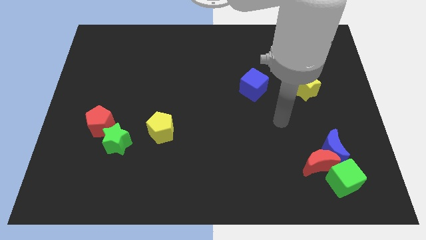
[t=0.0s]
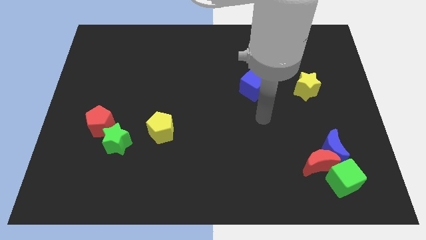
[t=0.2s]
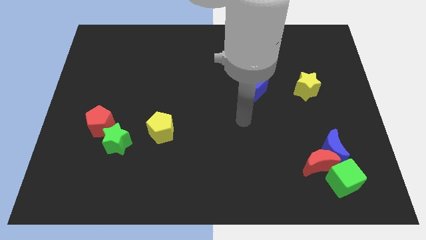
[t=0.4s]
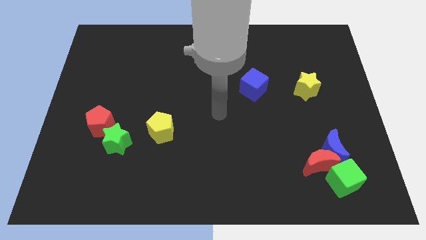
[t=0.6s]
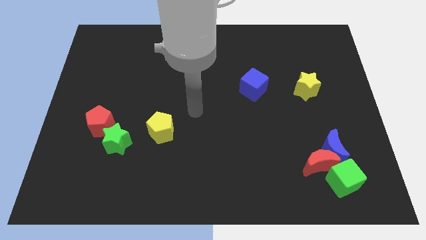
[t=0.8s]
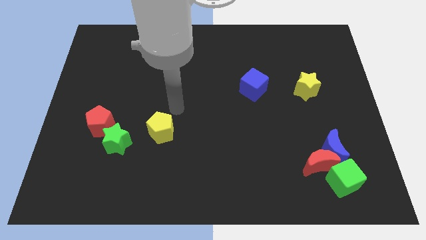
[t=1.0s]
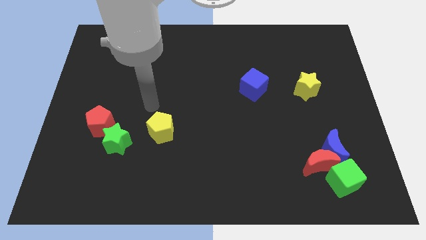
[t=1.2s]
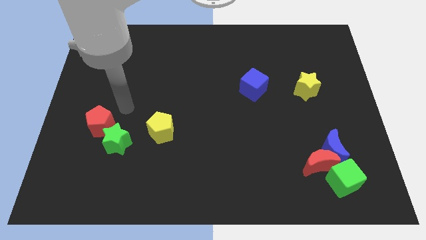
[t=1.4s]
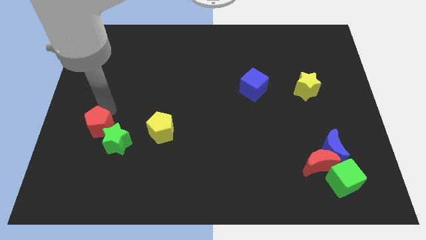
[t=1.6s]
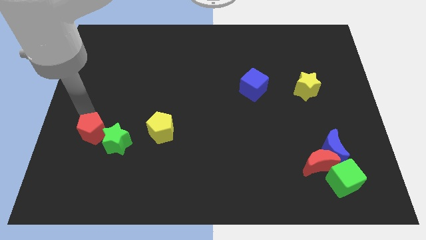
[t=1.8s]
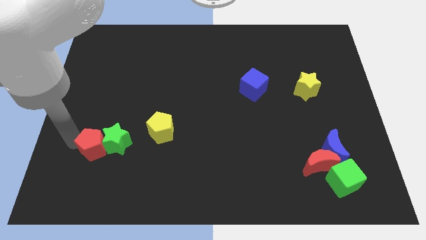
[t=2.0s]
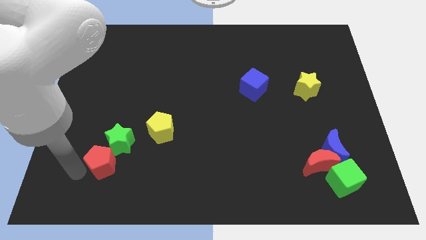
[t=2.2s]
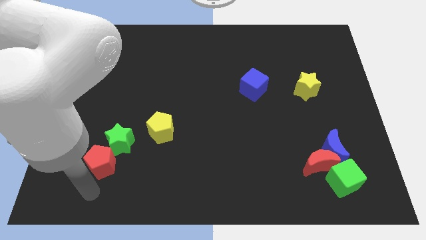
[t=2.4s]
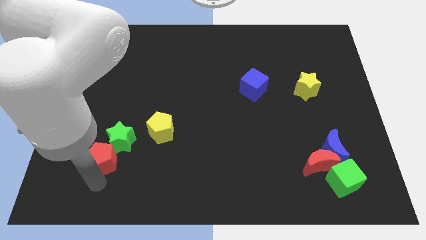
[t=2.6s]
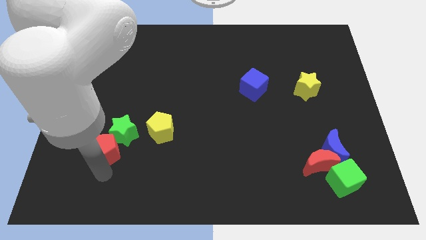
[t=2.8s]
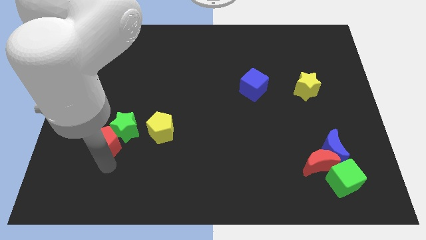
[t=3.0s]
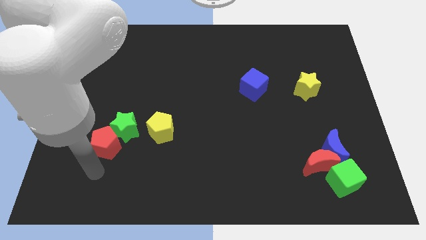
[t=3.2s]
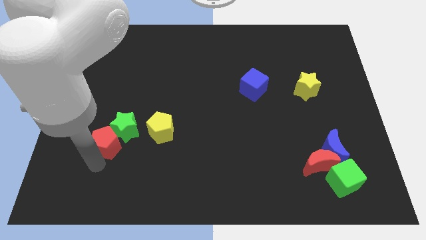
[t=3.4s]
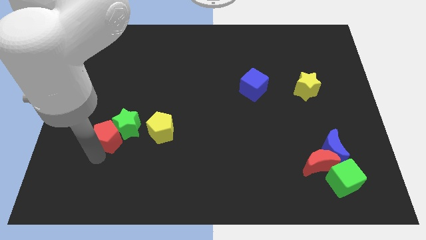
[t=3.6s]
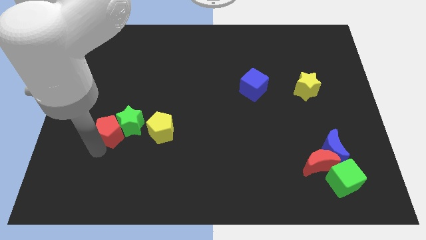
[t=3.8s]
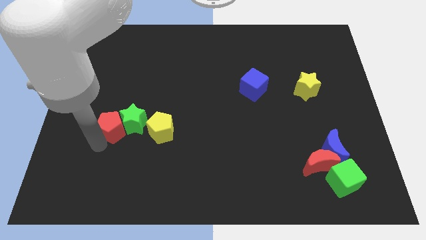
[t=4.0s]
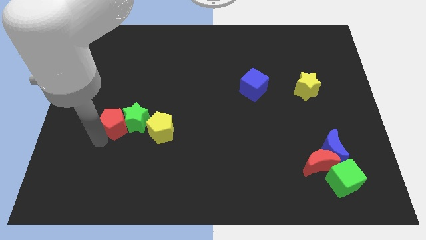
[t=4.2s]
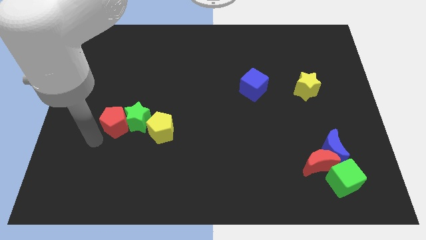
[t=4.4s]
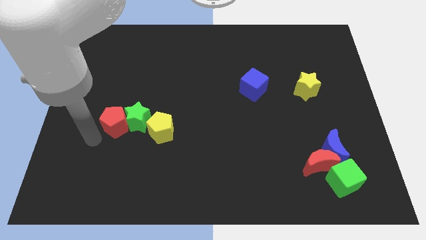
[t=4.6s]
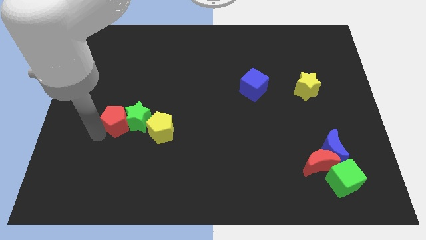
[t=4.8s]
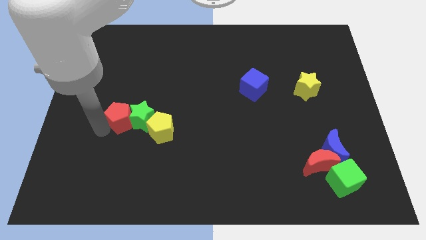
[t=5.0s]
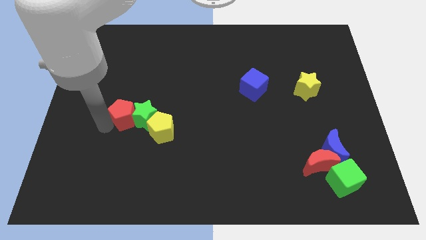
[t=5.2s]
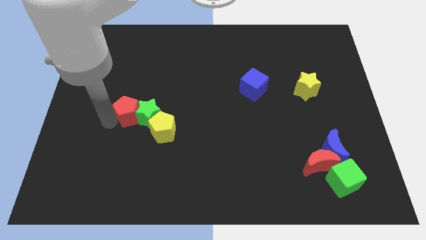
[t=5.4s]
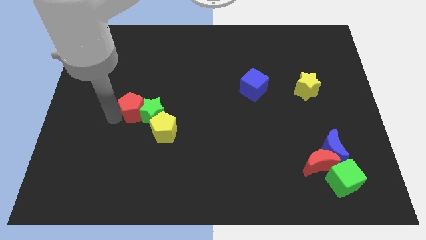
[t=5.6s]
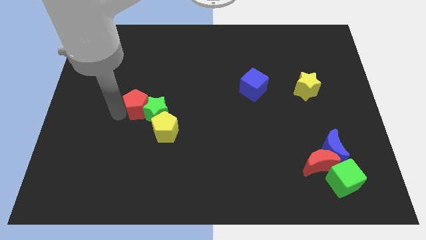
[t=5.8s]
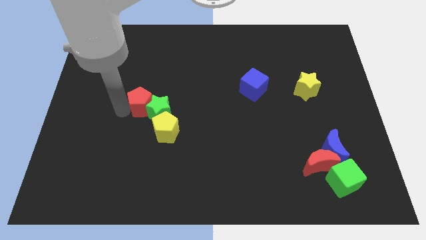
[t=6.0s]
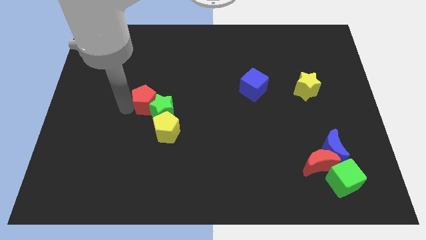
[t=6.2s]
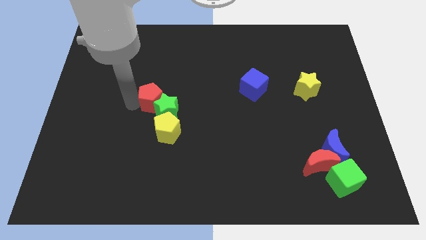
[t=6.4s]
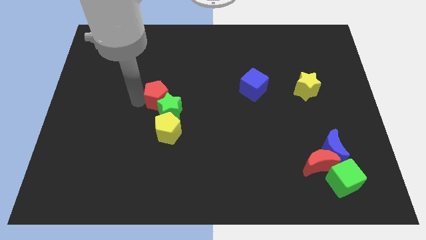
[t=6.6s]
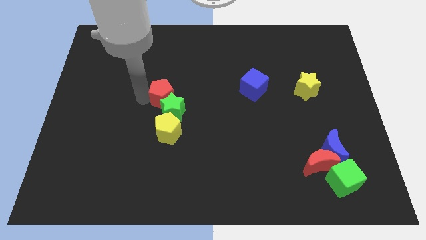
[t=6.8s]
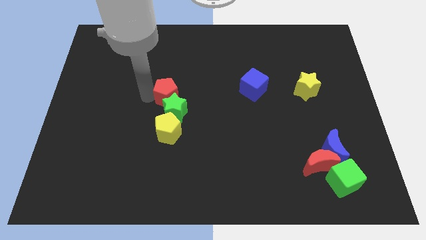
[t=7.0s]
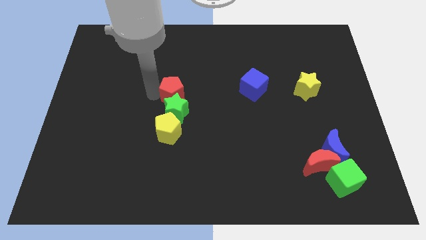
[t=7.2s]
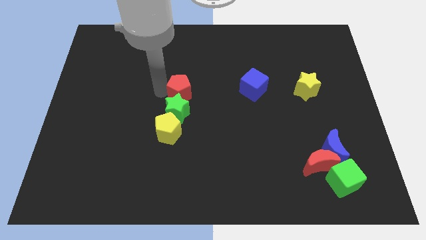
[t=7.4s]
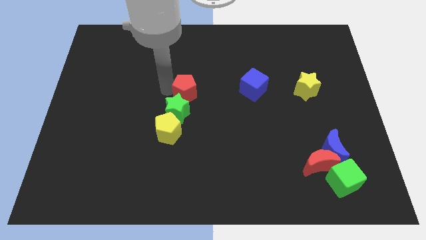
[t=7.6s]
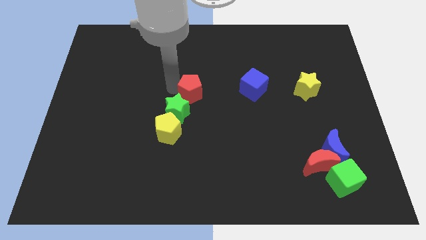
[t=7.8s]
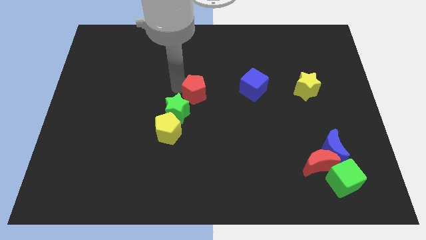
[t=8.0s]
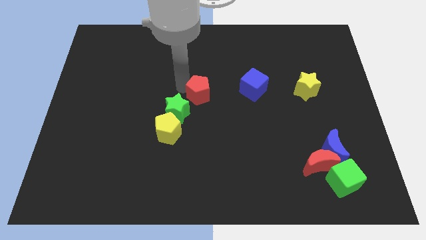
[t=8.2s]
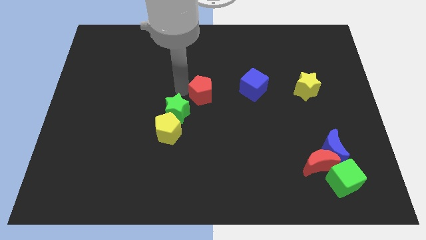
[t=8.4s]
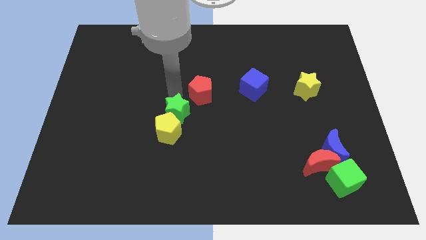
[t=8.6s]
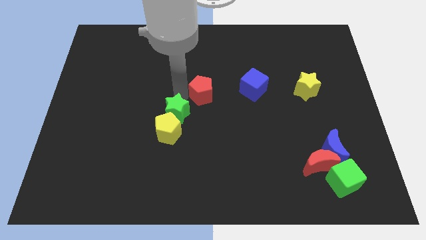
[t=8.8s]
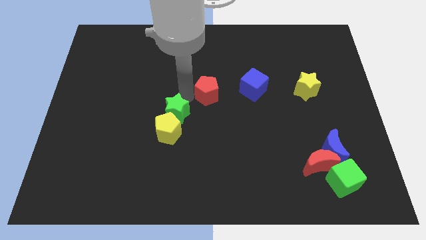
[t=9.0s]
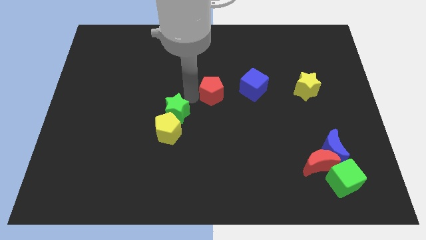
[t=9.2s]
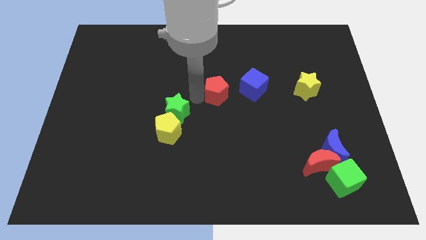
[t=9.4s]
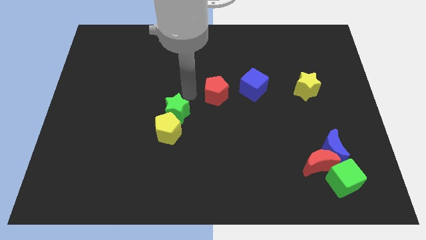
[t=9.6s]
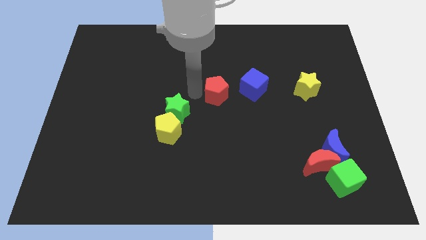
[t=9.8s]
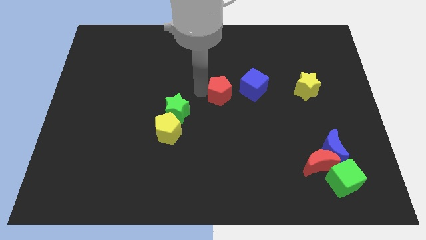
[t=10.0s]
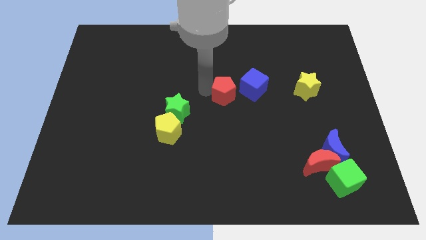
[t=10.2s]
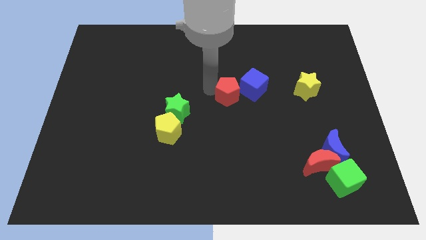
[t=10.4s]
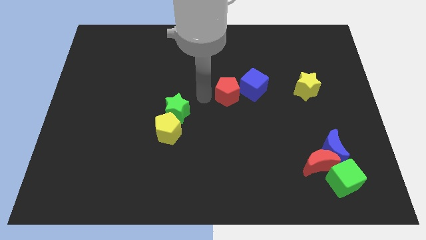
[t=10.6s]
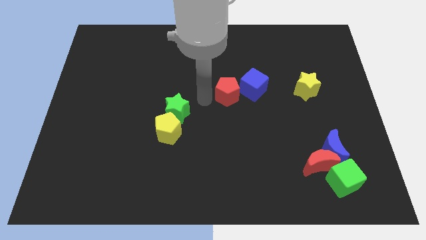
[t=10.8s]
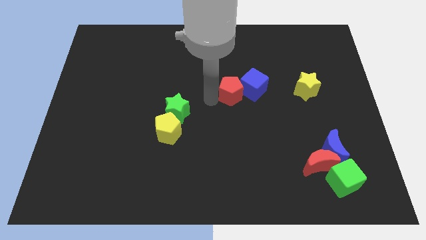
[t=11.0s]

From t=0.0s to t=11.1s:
put the red pentagon next to the blue cube

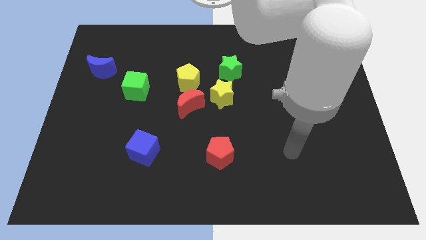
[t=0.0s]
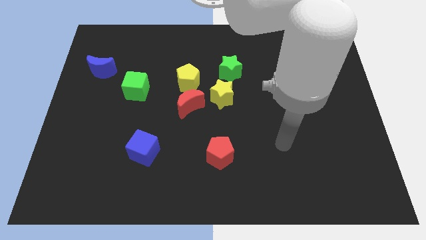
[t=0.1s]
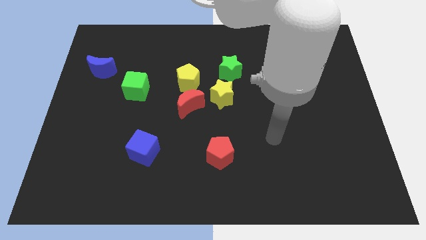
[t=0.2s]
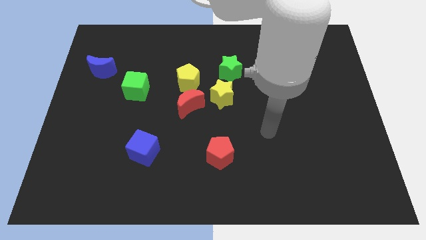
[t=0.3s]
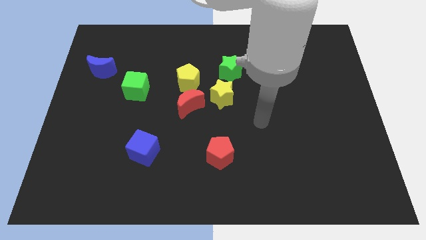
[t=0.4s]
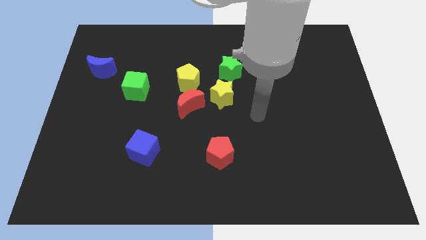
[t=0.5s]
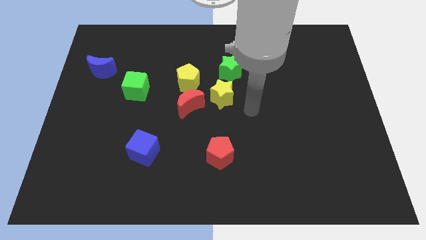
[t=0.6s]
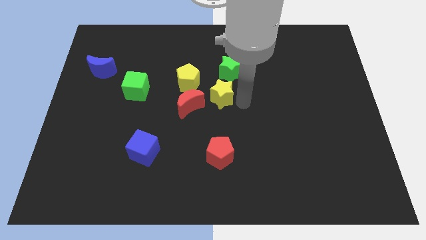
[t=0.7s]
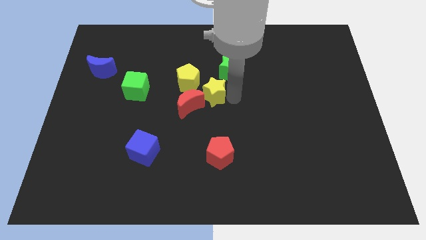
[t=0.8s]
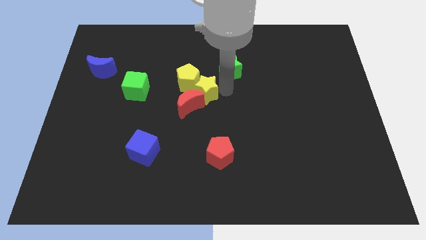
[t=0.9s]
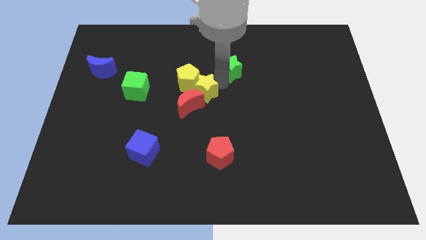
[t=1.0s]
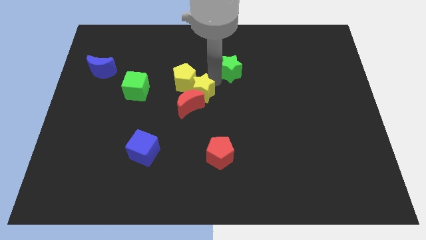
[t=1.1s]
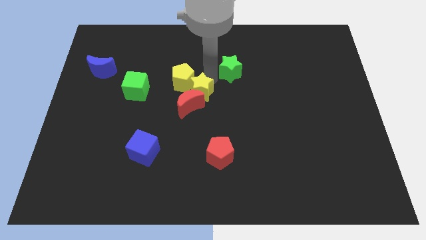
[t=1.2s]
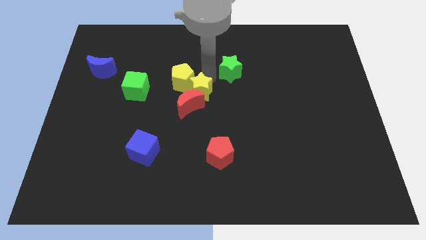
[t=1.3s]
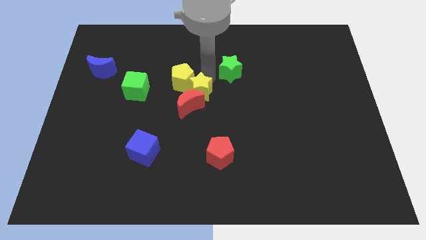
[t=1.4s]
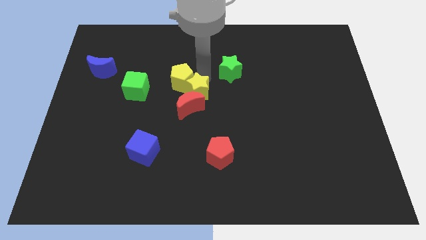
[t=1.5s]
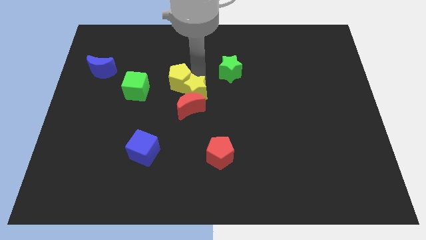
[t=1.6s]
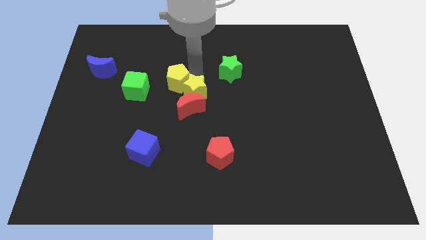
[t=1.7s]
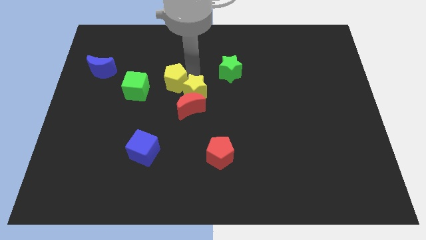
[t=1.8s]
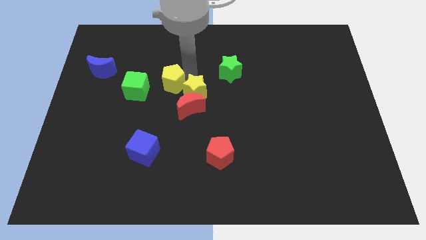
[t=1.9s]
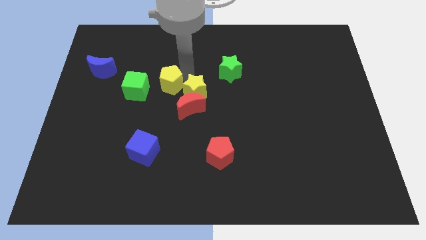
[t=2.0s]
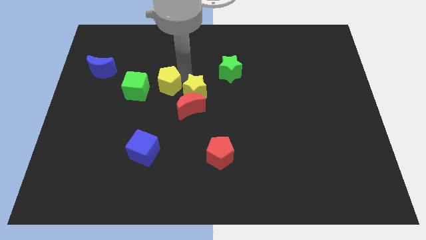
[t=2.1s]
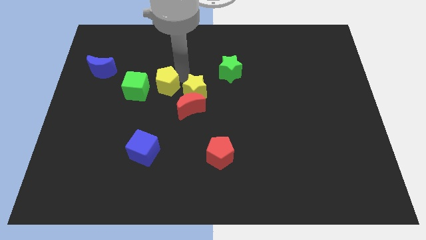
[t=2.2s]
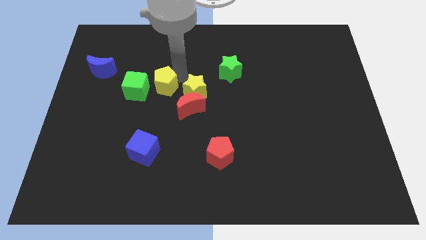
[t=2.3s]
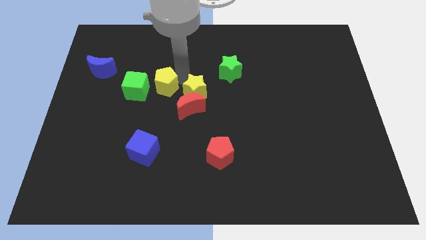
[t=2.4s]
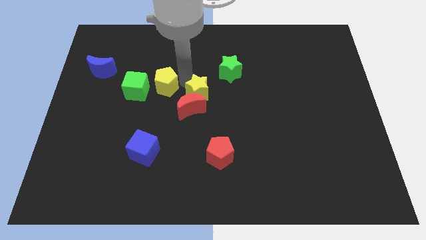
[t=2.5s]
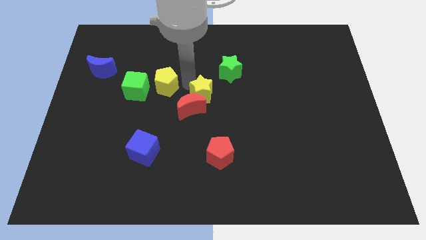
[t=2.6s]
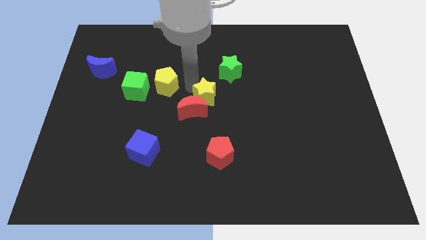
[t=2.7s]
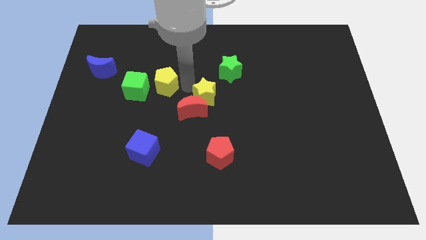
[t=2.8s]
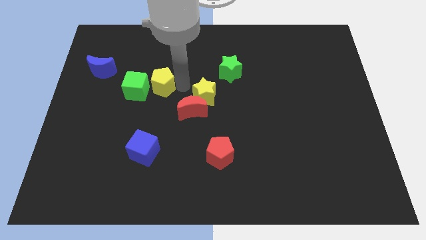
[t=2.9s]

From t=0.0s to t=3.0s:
push the yellow pentagon close to the green cube
